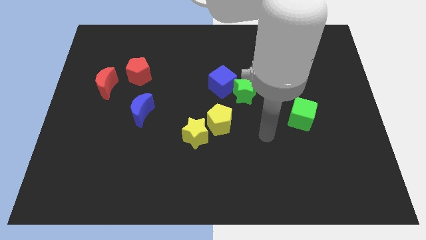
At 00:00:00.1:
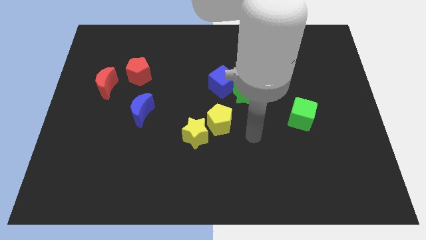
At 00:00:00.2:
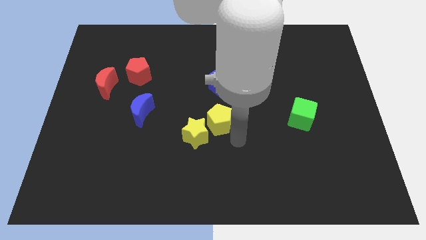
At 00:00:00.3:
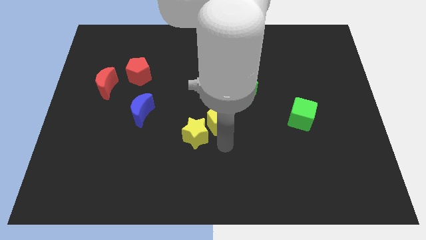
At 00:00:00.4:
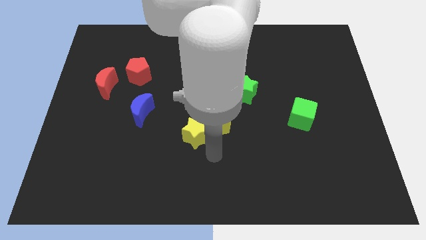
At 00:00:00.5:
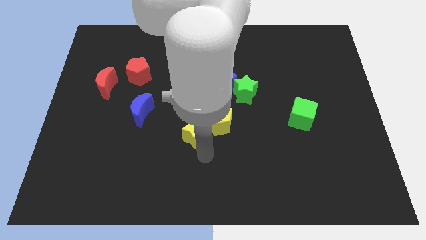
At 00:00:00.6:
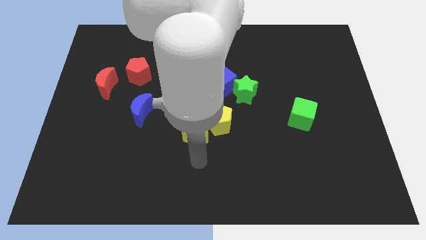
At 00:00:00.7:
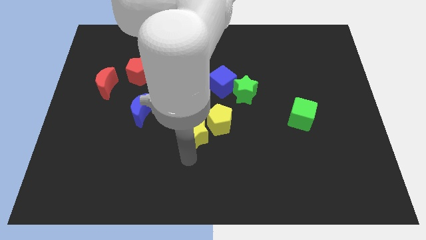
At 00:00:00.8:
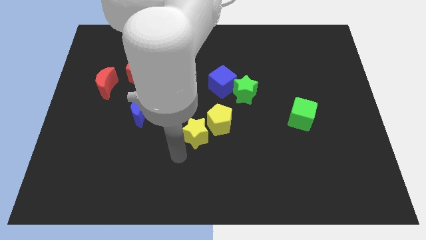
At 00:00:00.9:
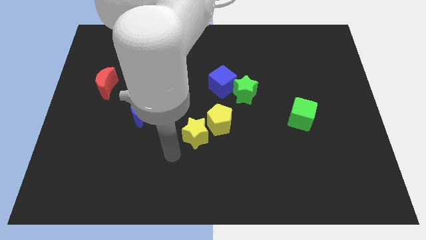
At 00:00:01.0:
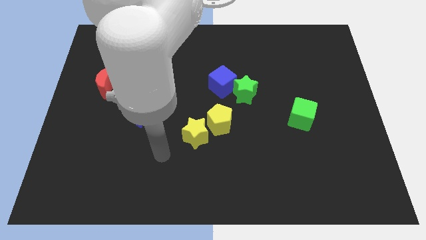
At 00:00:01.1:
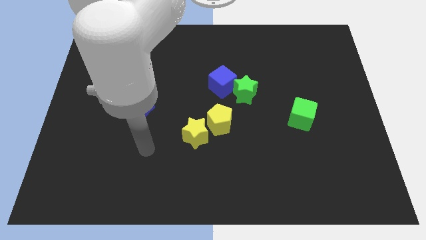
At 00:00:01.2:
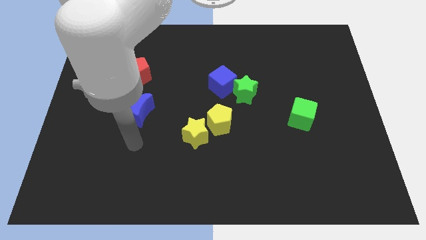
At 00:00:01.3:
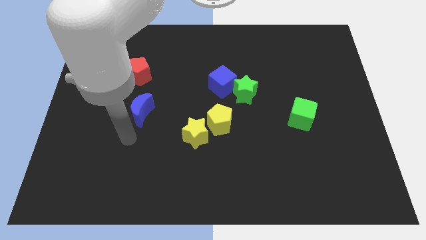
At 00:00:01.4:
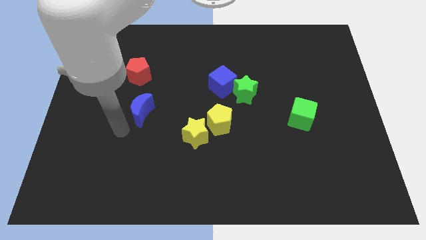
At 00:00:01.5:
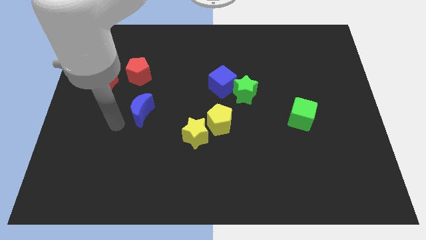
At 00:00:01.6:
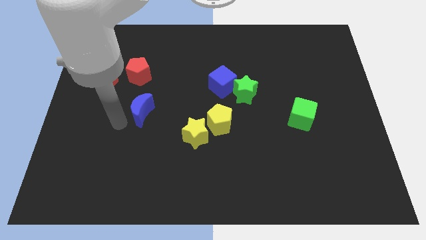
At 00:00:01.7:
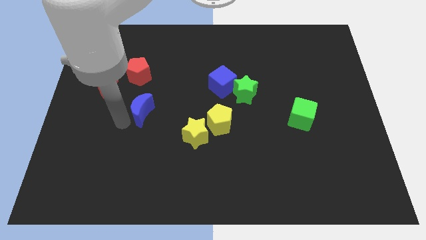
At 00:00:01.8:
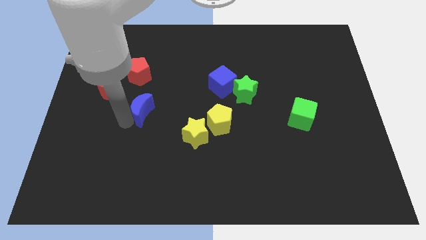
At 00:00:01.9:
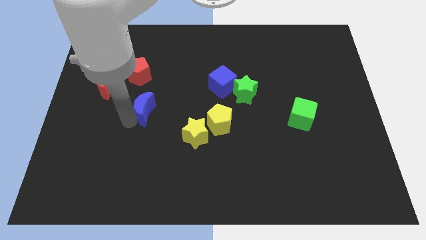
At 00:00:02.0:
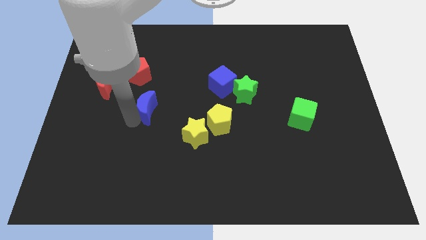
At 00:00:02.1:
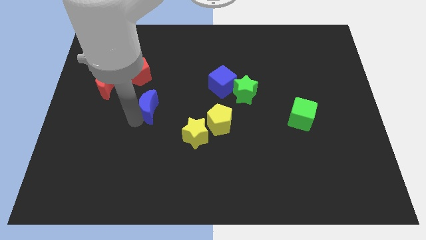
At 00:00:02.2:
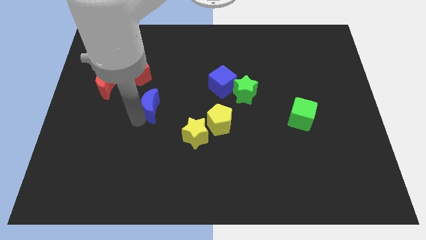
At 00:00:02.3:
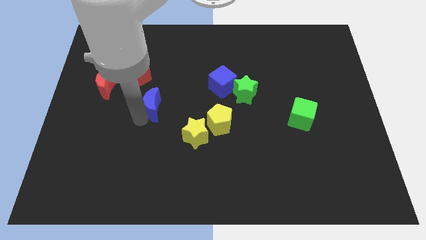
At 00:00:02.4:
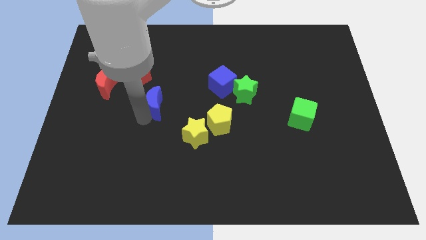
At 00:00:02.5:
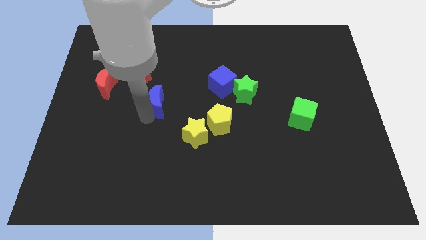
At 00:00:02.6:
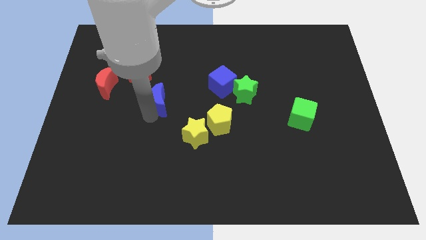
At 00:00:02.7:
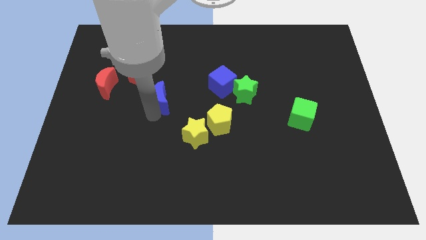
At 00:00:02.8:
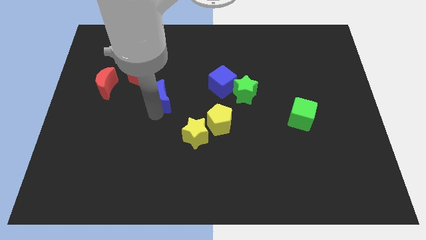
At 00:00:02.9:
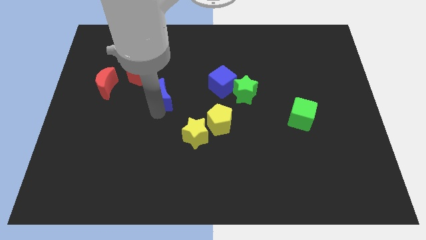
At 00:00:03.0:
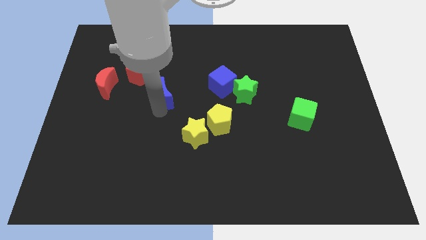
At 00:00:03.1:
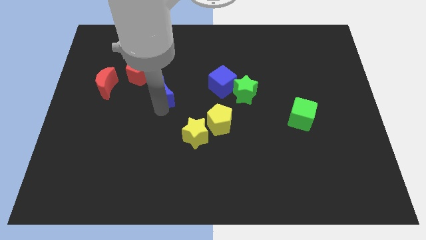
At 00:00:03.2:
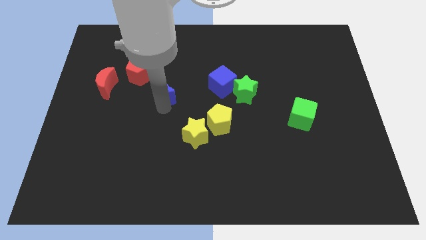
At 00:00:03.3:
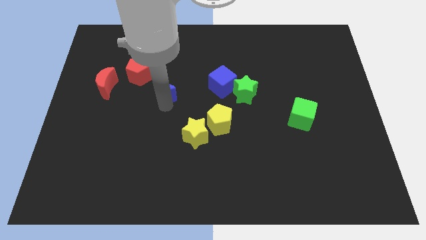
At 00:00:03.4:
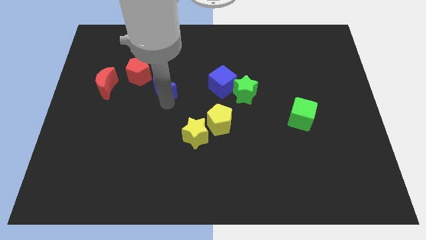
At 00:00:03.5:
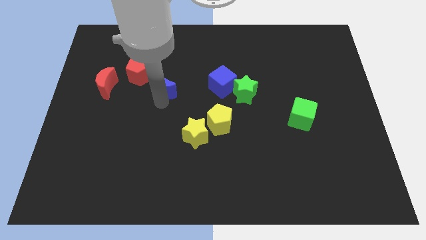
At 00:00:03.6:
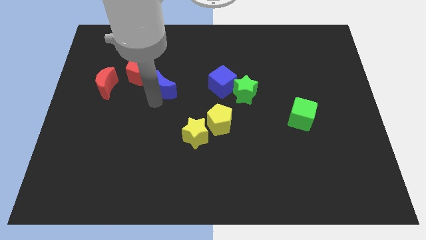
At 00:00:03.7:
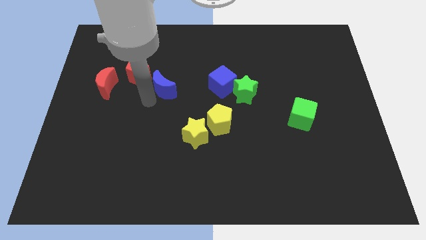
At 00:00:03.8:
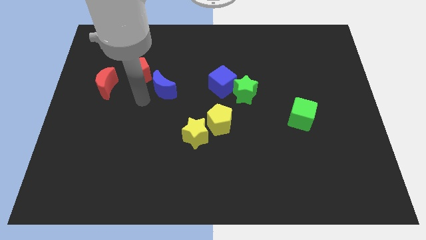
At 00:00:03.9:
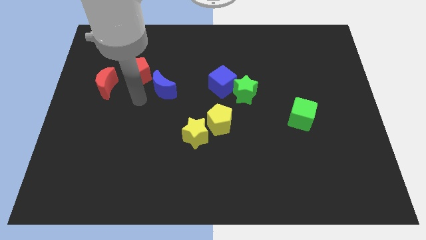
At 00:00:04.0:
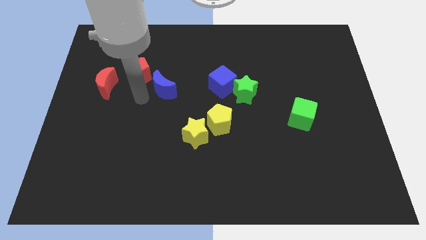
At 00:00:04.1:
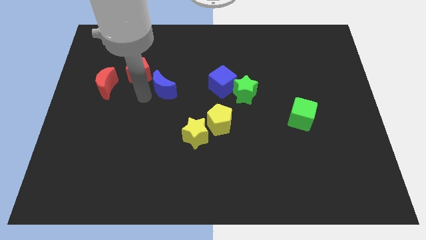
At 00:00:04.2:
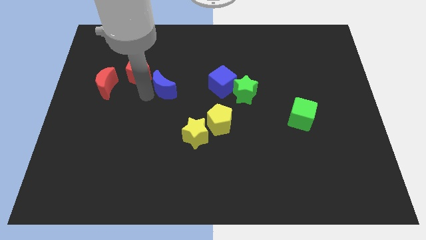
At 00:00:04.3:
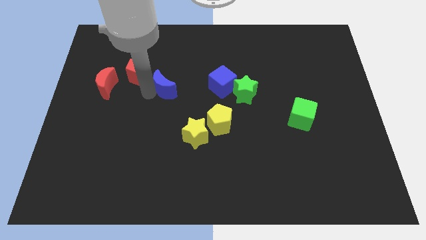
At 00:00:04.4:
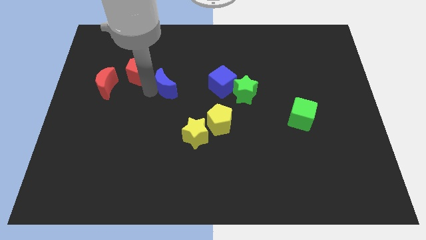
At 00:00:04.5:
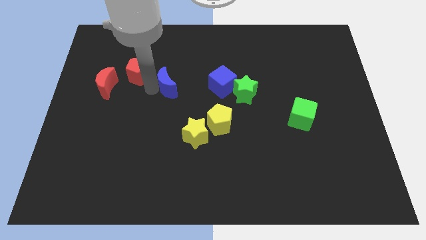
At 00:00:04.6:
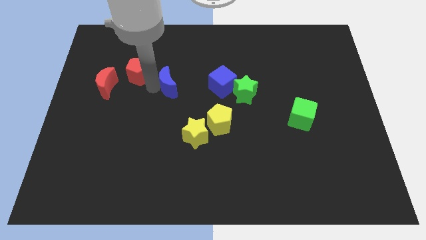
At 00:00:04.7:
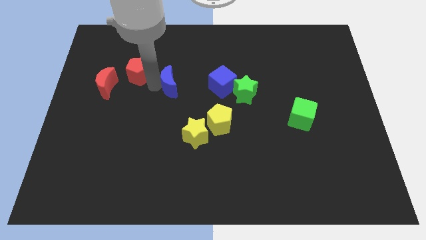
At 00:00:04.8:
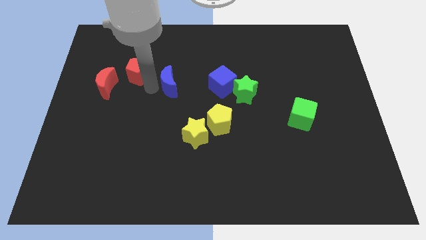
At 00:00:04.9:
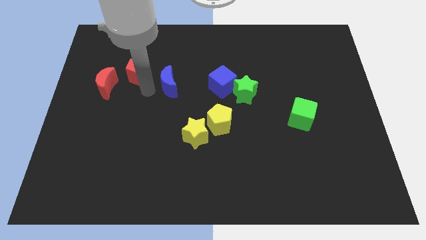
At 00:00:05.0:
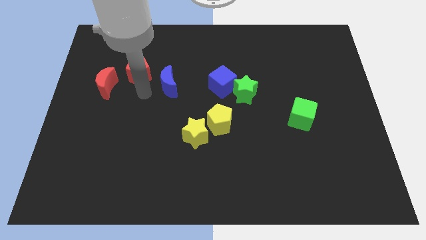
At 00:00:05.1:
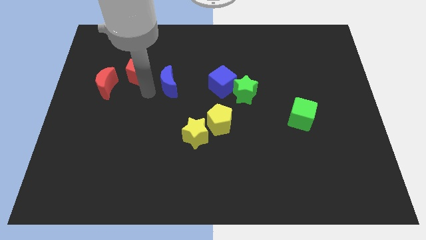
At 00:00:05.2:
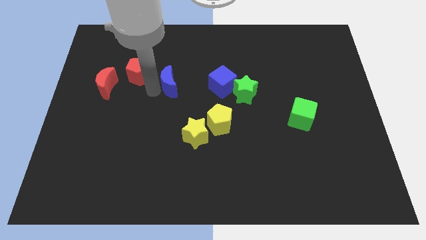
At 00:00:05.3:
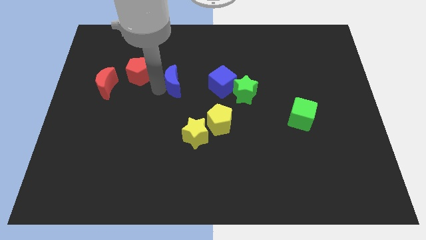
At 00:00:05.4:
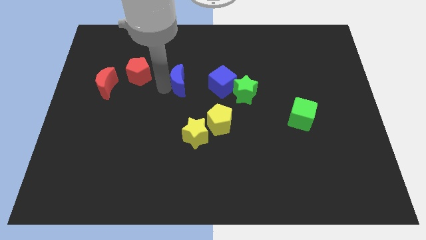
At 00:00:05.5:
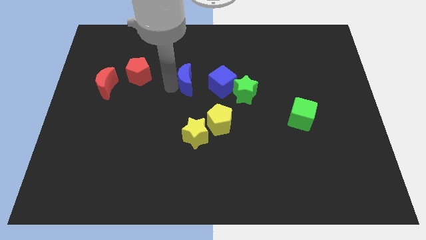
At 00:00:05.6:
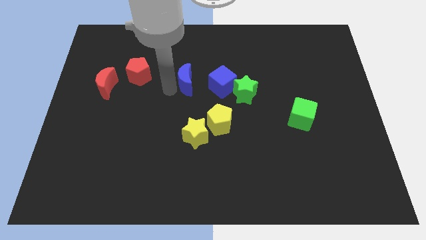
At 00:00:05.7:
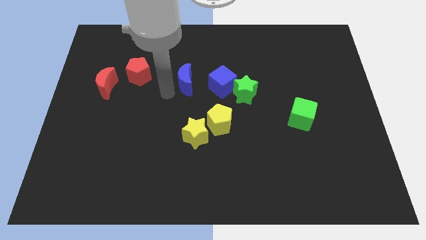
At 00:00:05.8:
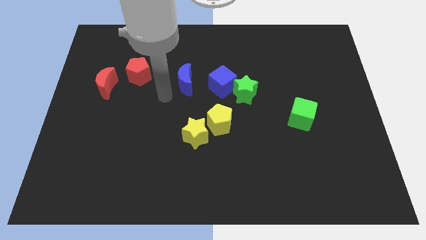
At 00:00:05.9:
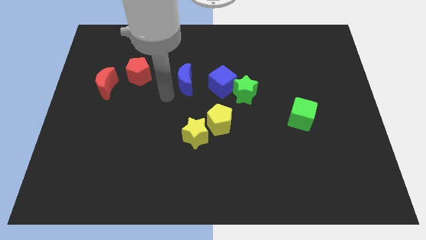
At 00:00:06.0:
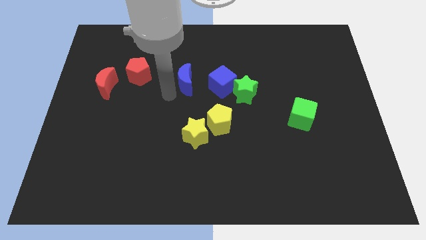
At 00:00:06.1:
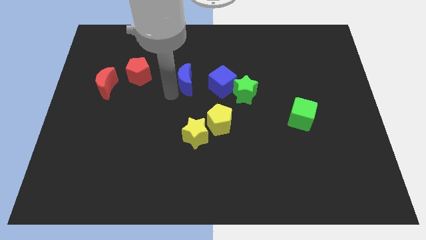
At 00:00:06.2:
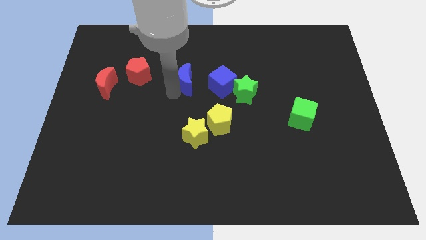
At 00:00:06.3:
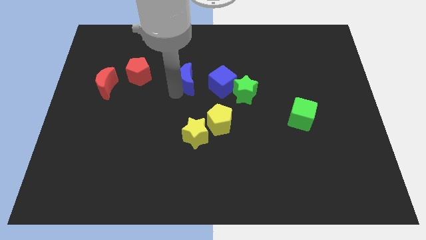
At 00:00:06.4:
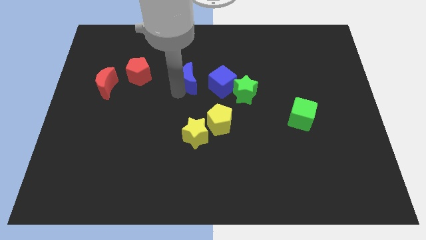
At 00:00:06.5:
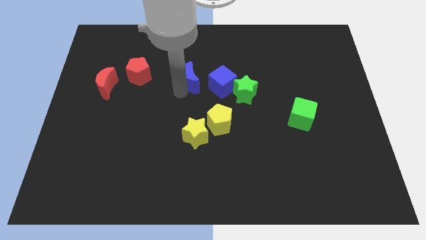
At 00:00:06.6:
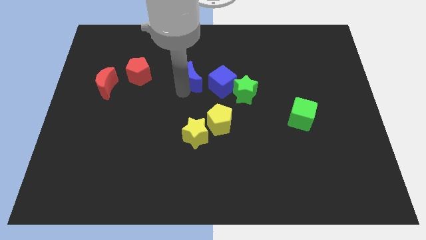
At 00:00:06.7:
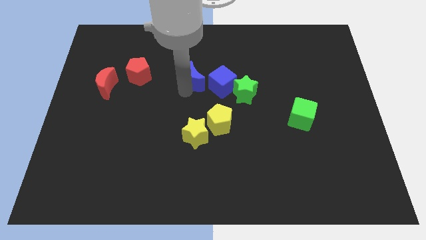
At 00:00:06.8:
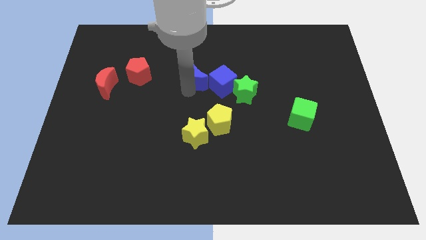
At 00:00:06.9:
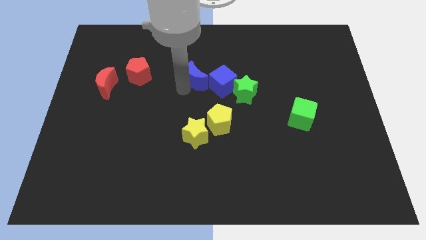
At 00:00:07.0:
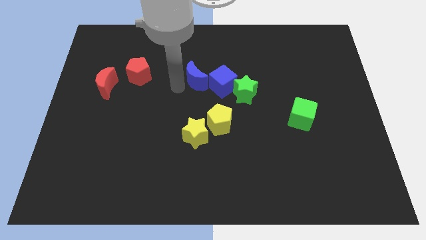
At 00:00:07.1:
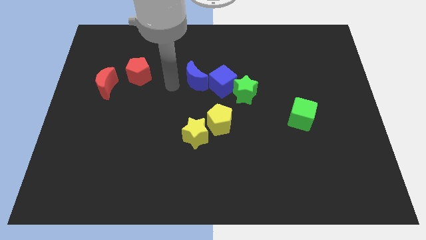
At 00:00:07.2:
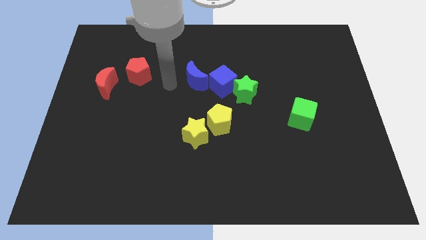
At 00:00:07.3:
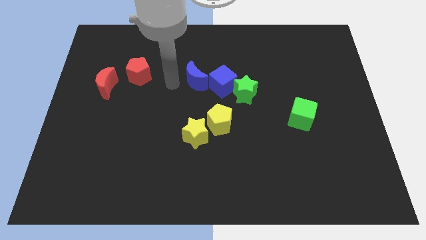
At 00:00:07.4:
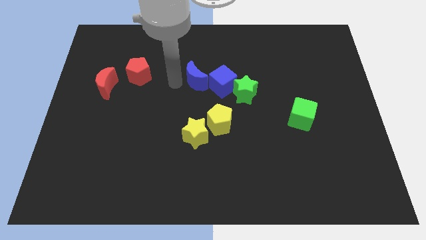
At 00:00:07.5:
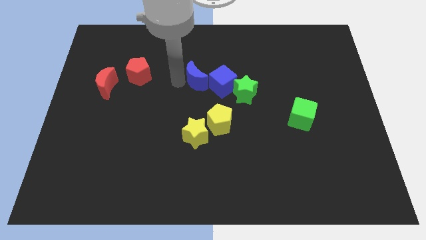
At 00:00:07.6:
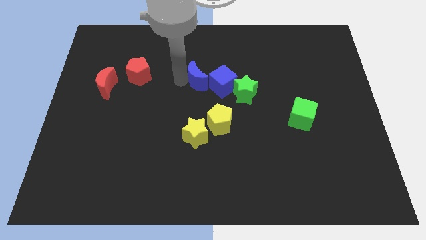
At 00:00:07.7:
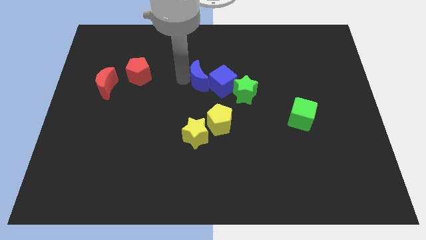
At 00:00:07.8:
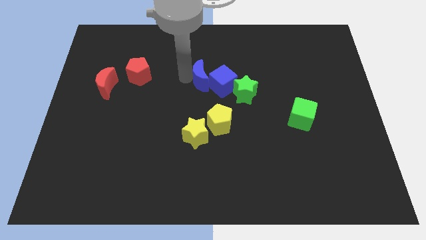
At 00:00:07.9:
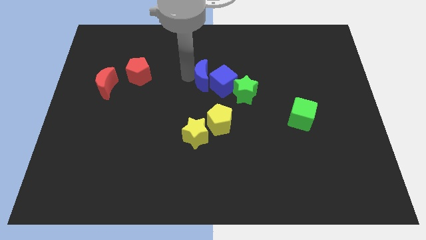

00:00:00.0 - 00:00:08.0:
move the blue moon to the top left side of the green star
